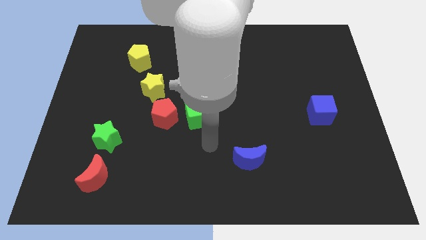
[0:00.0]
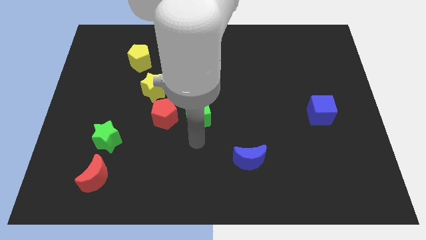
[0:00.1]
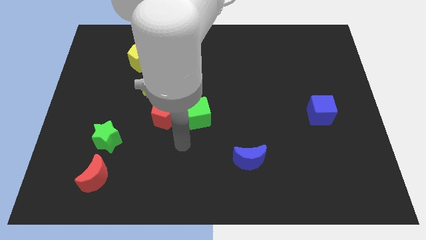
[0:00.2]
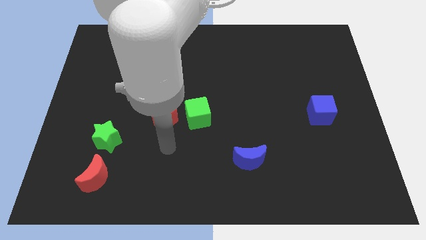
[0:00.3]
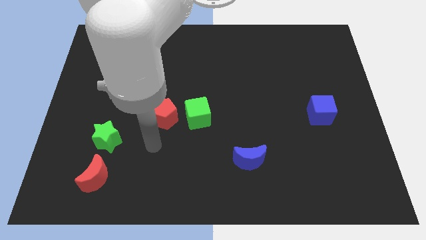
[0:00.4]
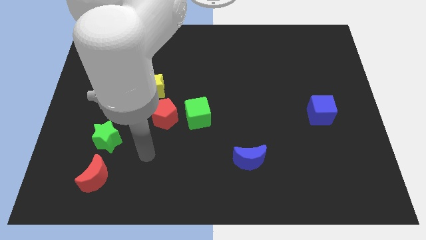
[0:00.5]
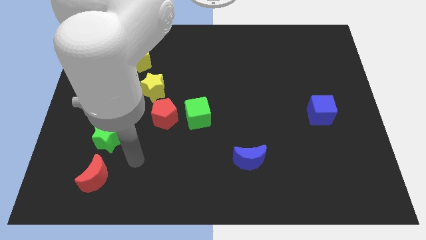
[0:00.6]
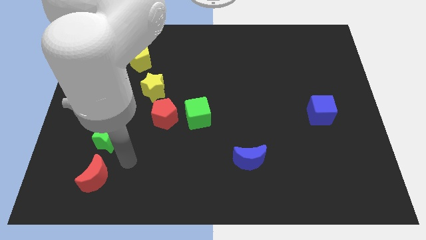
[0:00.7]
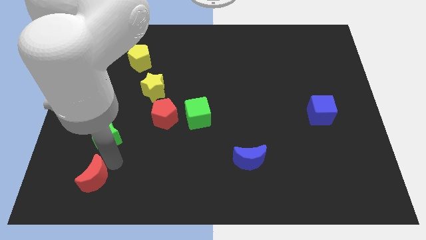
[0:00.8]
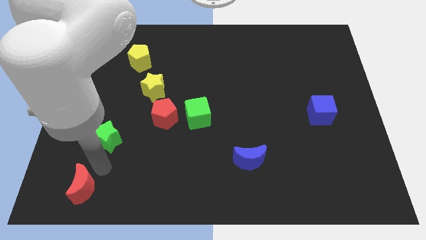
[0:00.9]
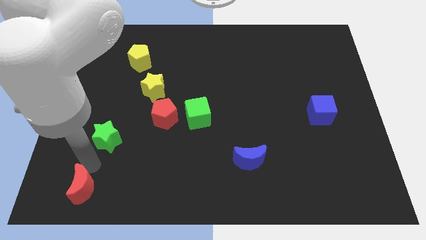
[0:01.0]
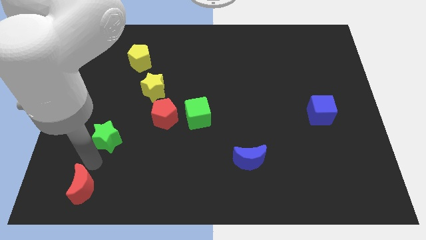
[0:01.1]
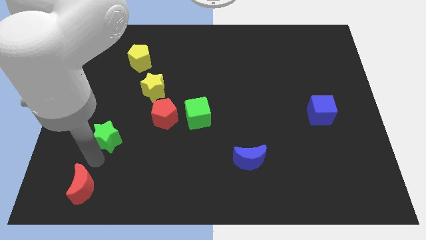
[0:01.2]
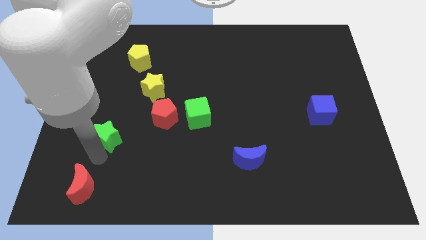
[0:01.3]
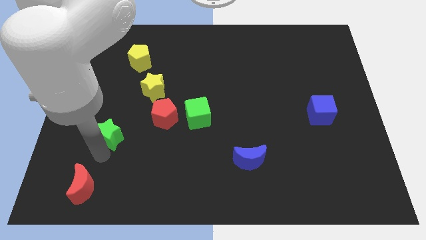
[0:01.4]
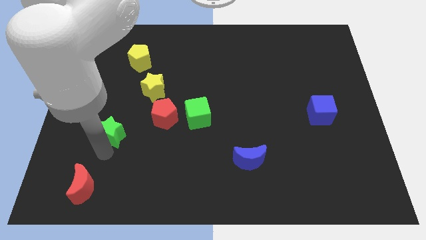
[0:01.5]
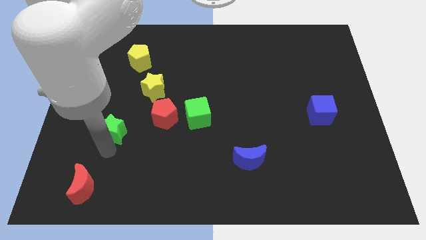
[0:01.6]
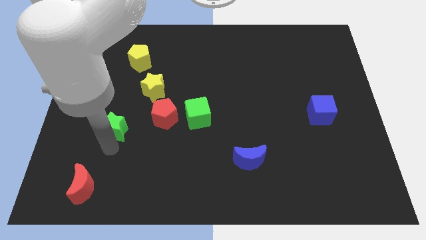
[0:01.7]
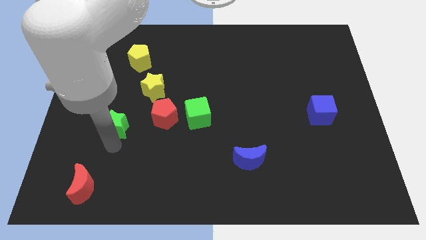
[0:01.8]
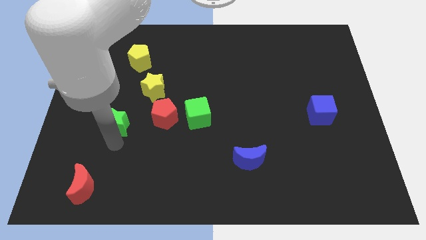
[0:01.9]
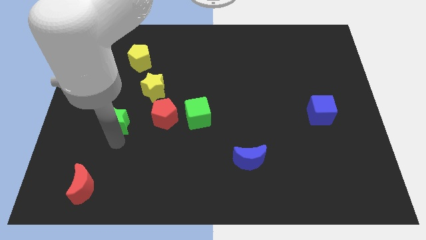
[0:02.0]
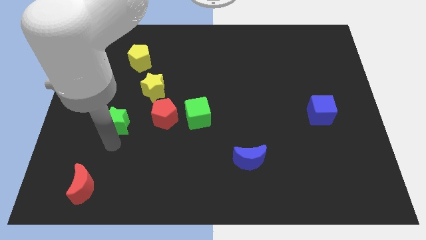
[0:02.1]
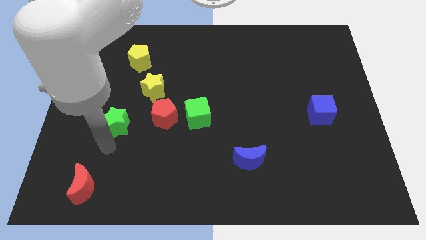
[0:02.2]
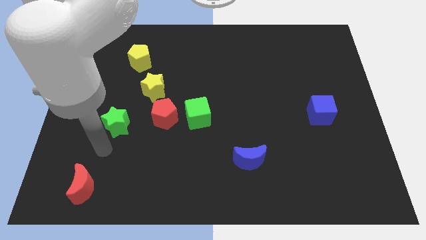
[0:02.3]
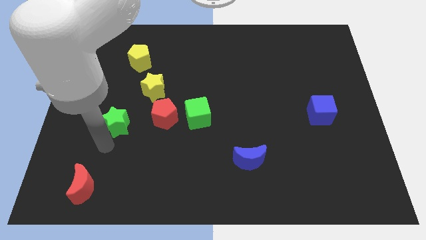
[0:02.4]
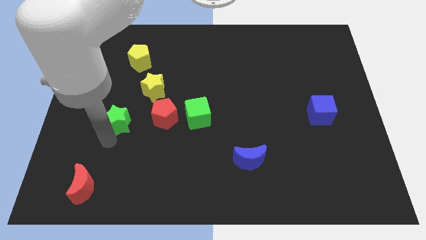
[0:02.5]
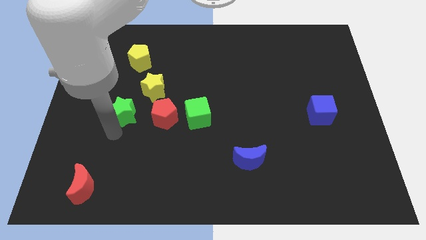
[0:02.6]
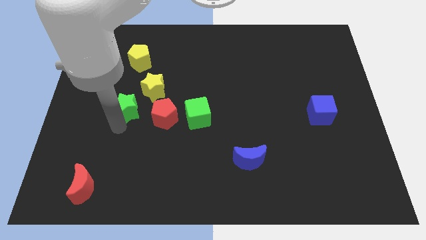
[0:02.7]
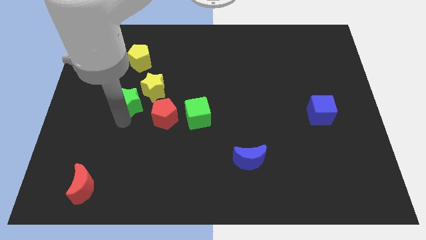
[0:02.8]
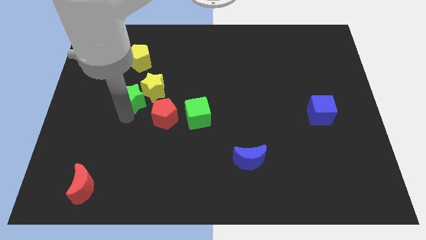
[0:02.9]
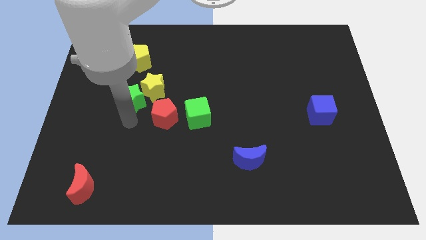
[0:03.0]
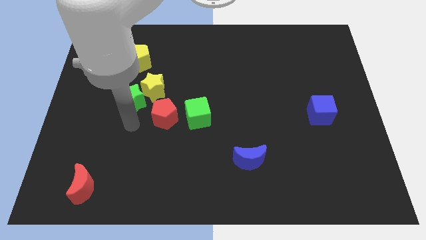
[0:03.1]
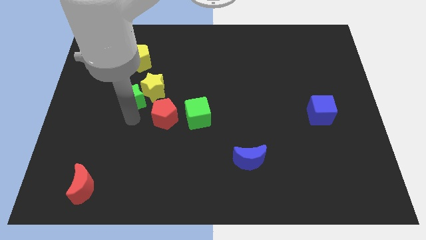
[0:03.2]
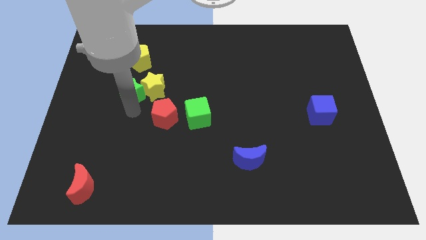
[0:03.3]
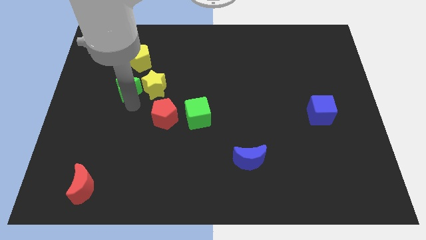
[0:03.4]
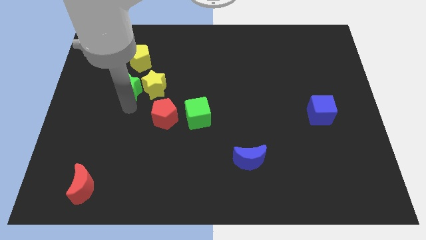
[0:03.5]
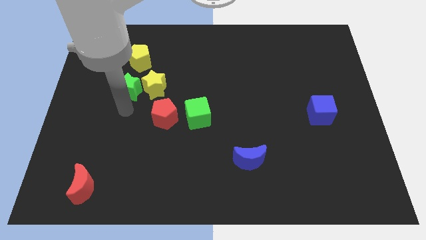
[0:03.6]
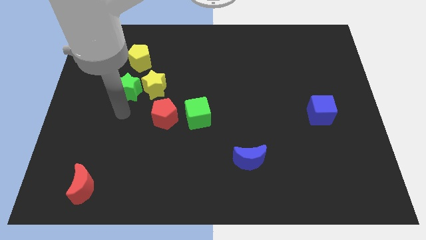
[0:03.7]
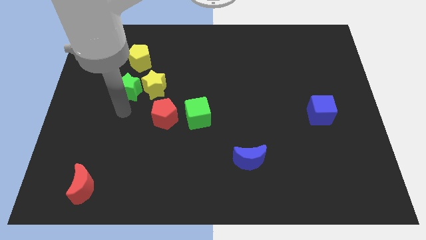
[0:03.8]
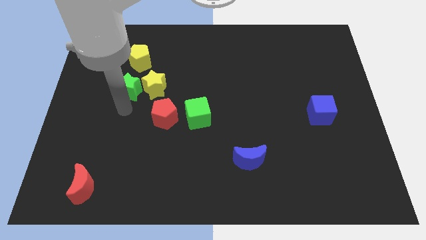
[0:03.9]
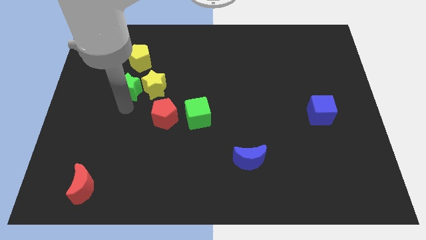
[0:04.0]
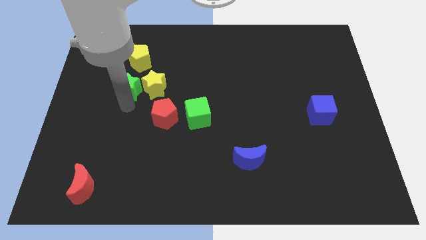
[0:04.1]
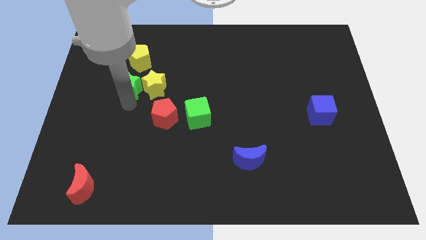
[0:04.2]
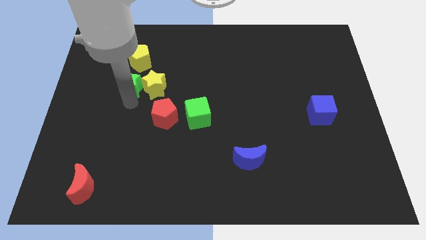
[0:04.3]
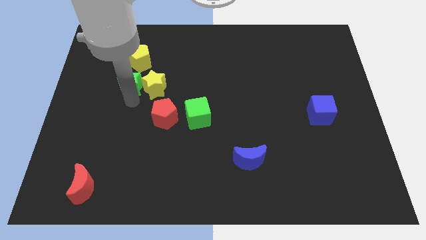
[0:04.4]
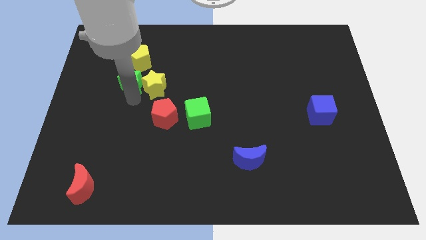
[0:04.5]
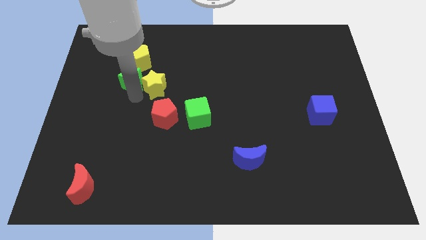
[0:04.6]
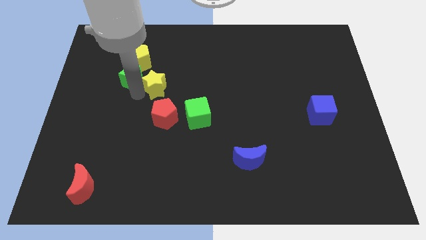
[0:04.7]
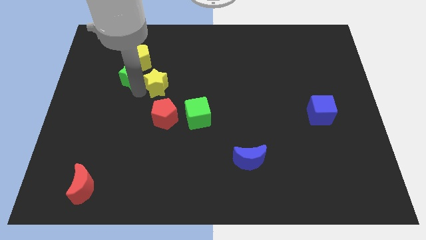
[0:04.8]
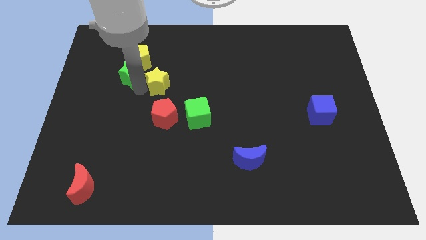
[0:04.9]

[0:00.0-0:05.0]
put the green star to the yellow pentagon

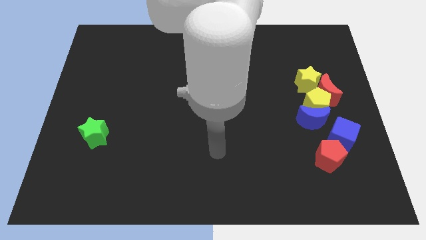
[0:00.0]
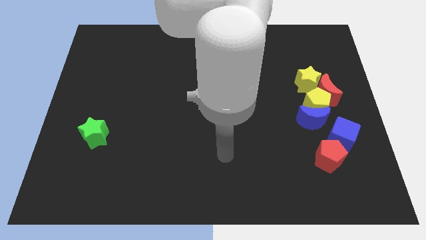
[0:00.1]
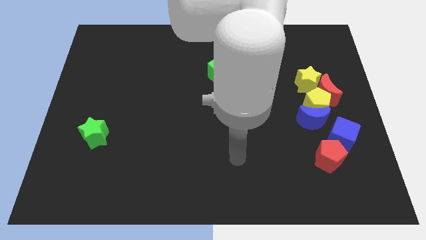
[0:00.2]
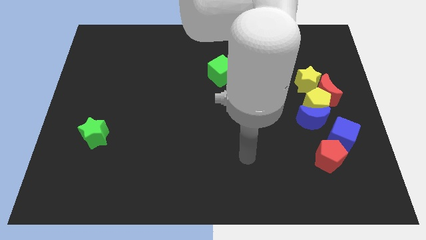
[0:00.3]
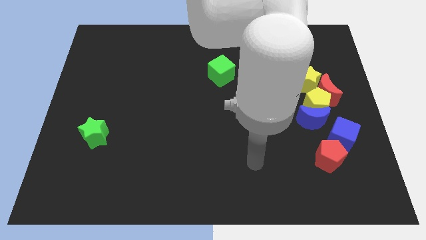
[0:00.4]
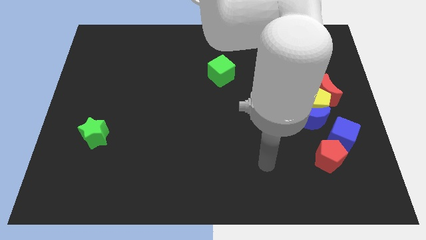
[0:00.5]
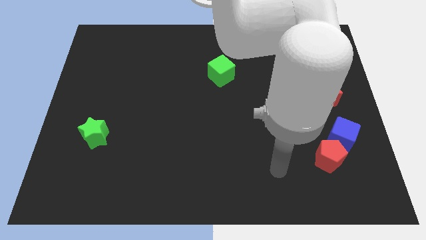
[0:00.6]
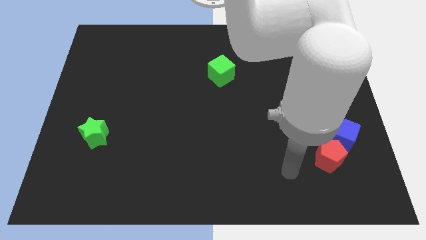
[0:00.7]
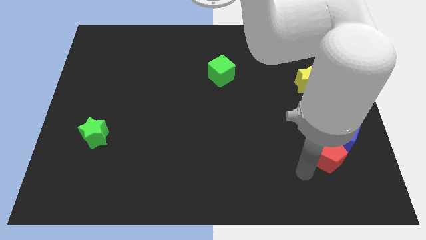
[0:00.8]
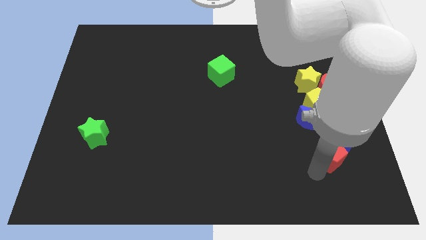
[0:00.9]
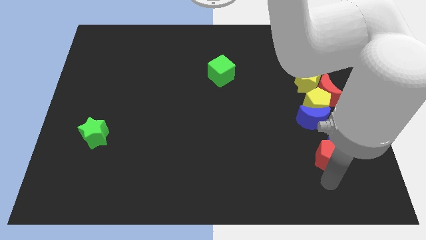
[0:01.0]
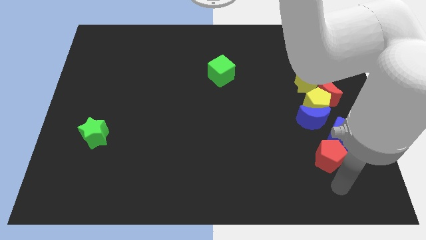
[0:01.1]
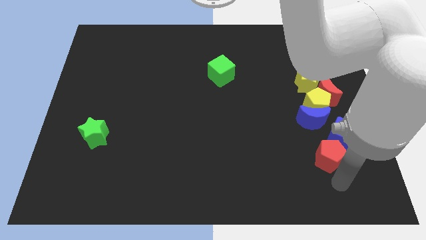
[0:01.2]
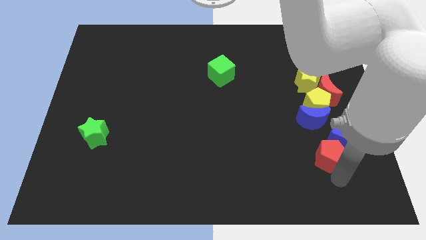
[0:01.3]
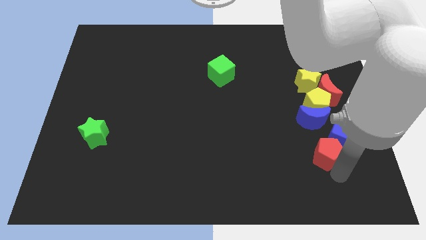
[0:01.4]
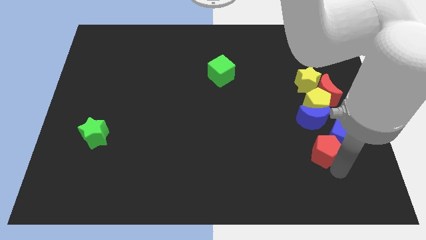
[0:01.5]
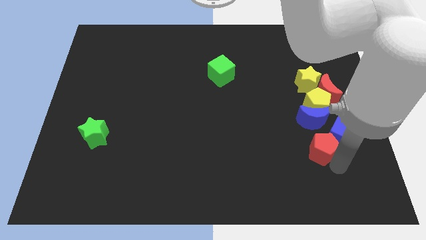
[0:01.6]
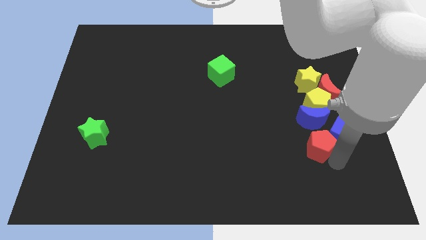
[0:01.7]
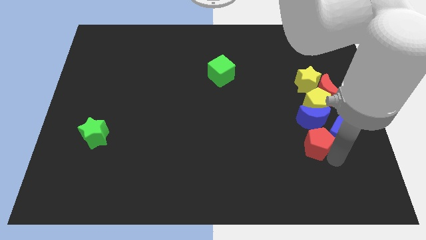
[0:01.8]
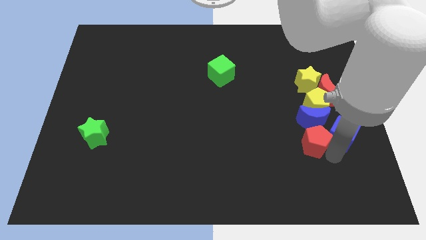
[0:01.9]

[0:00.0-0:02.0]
push the red pentagon close to the blue moon
